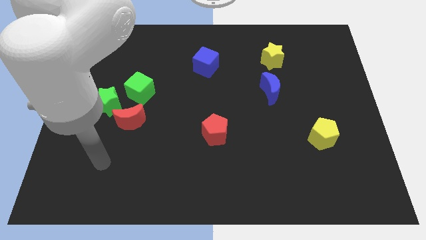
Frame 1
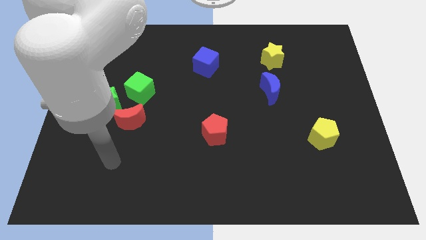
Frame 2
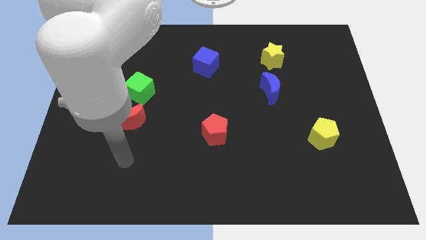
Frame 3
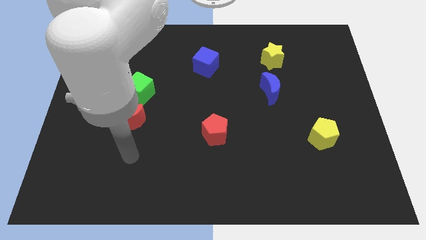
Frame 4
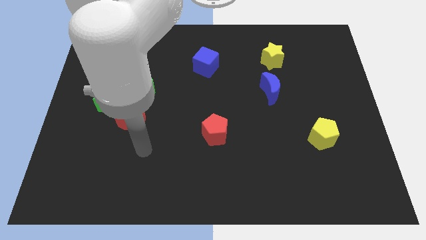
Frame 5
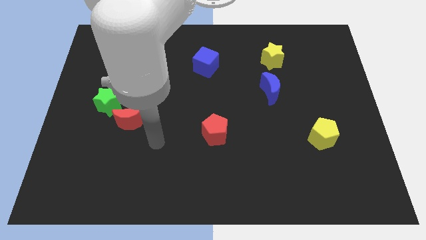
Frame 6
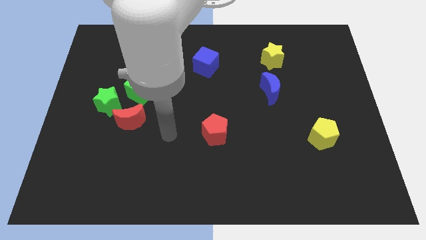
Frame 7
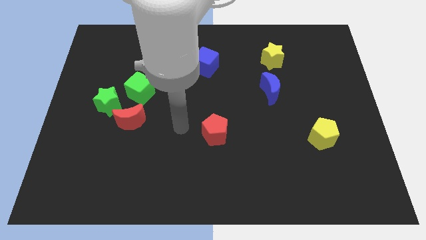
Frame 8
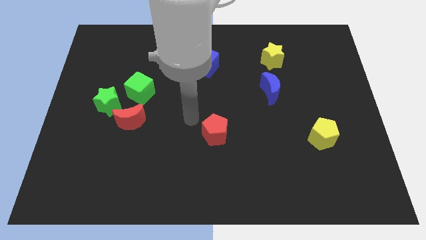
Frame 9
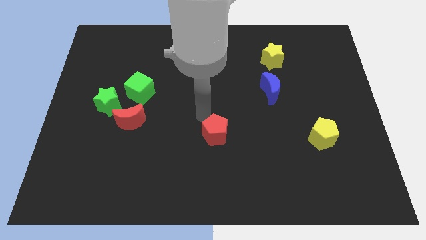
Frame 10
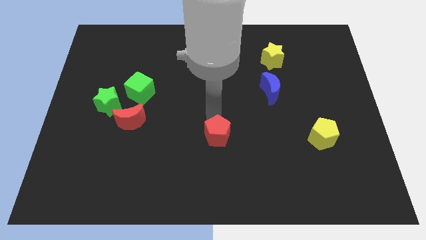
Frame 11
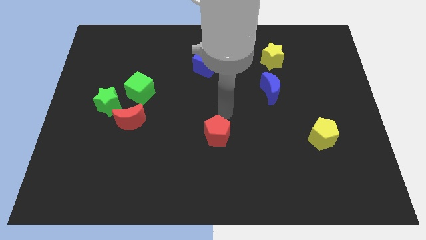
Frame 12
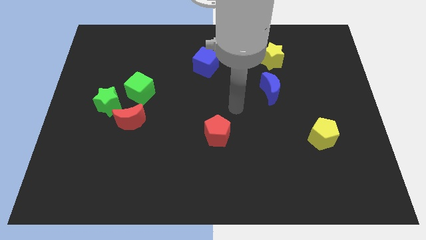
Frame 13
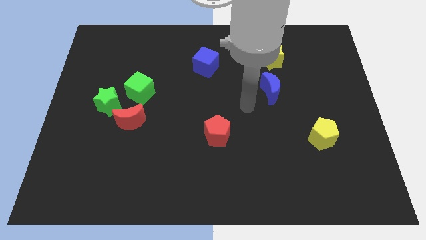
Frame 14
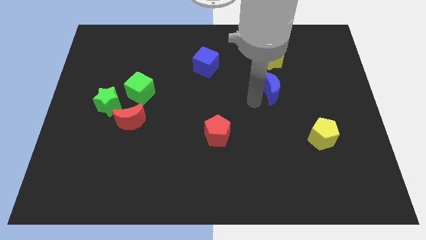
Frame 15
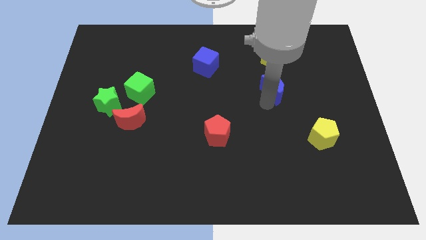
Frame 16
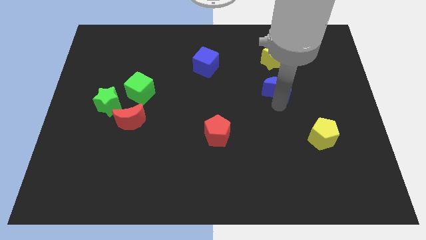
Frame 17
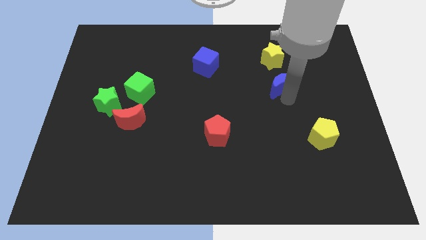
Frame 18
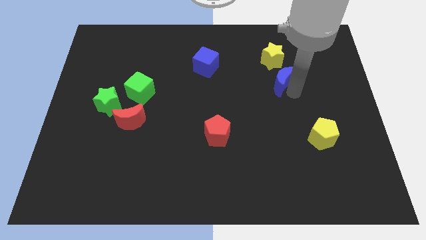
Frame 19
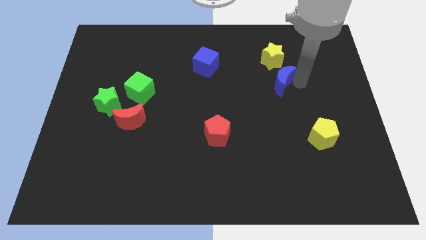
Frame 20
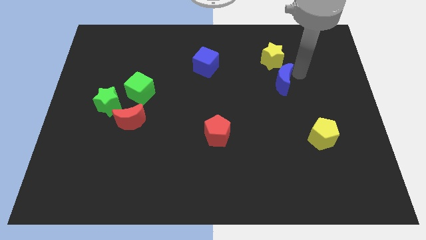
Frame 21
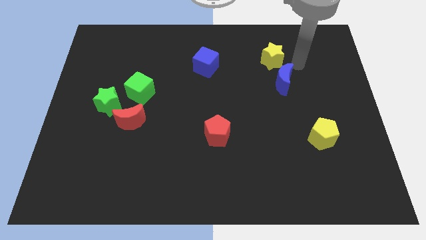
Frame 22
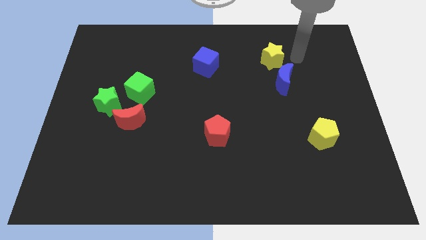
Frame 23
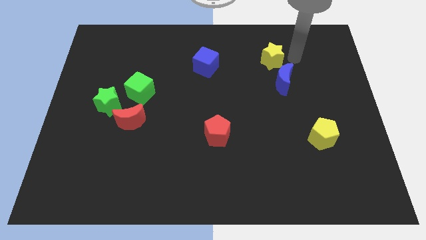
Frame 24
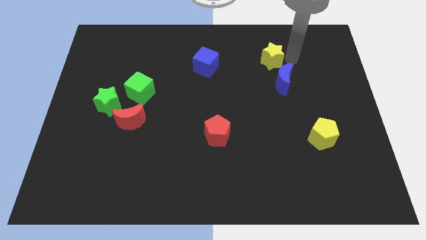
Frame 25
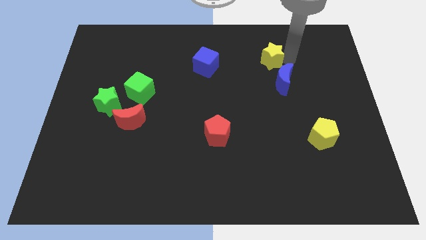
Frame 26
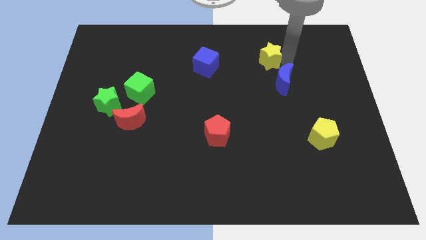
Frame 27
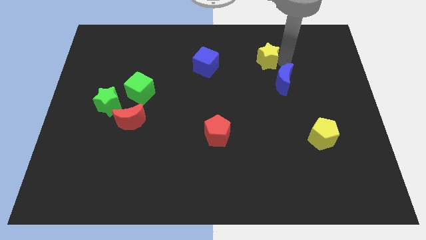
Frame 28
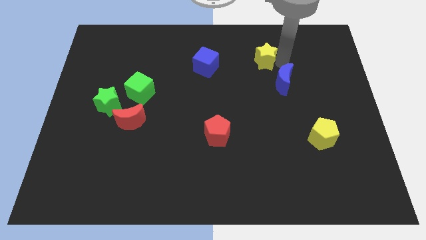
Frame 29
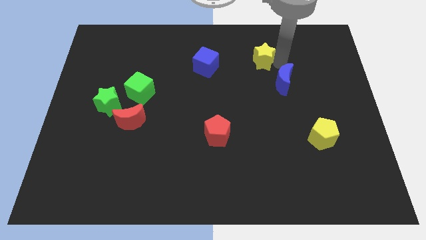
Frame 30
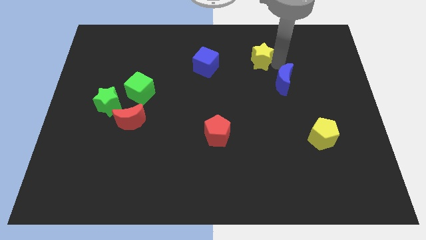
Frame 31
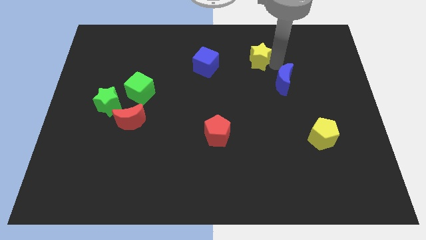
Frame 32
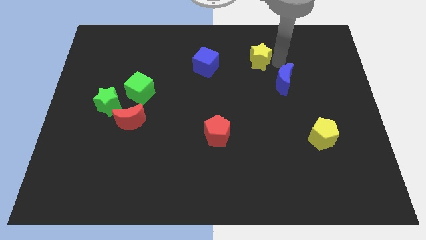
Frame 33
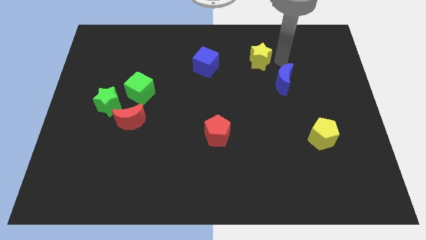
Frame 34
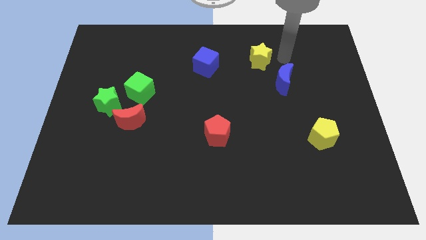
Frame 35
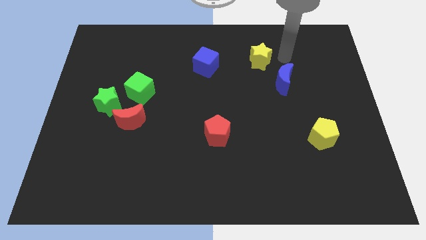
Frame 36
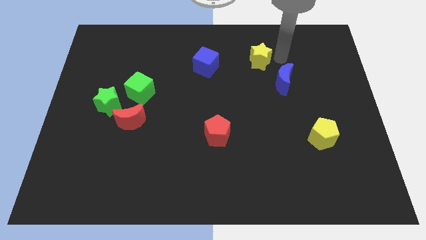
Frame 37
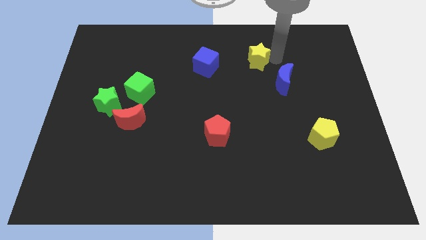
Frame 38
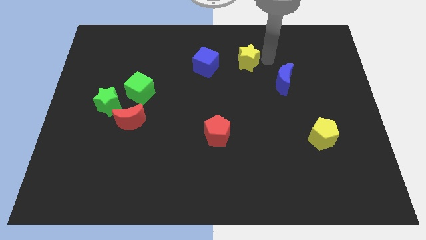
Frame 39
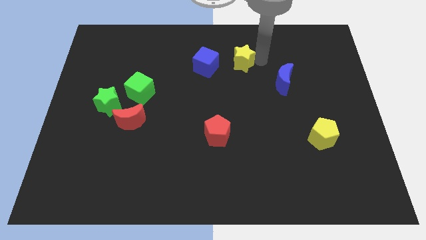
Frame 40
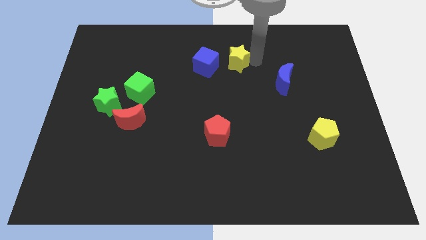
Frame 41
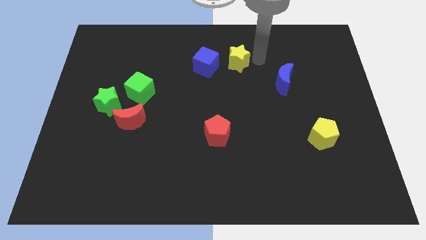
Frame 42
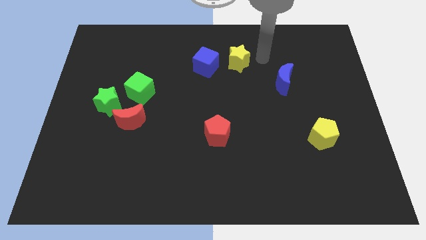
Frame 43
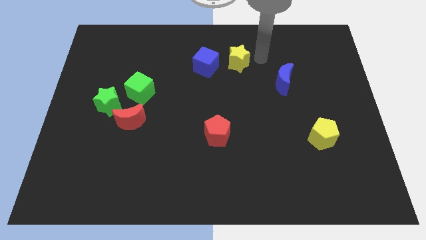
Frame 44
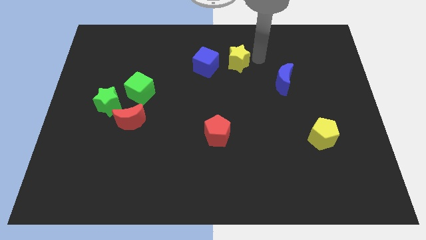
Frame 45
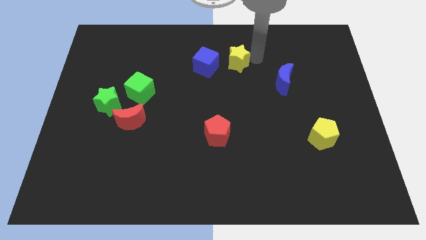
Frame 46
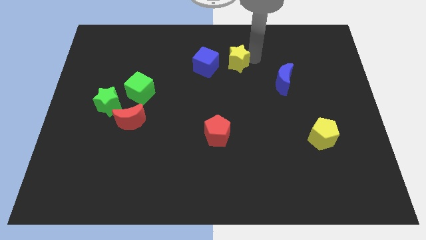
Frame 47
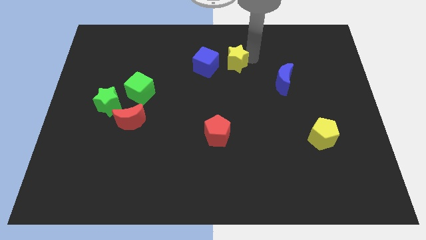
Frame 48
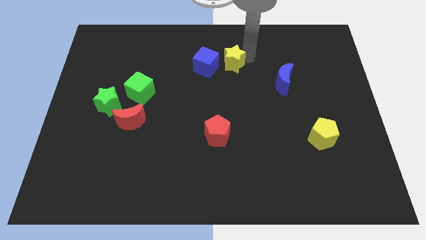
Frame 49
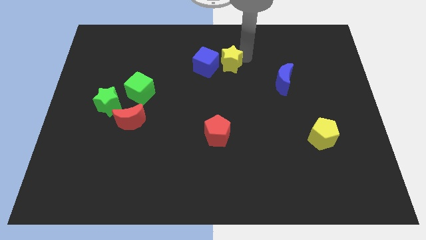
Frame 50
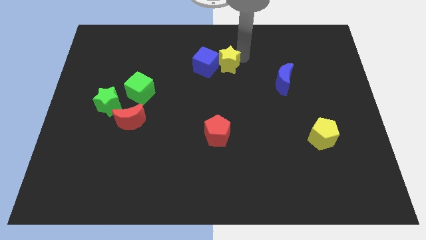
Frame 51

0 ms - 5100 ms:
put the yellow star close to the blue cube

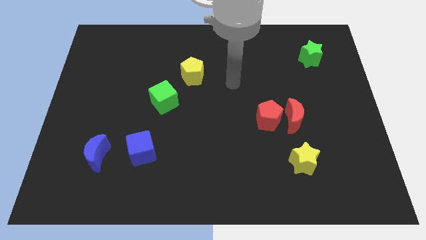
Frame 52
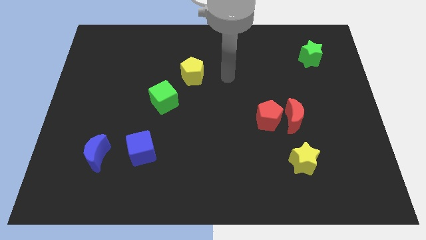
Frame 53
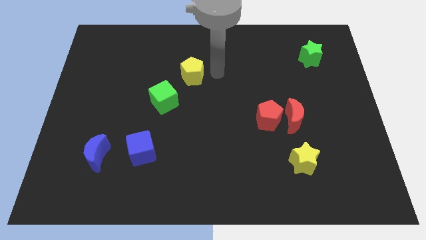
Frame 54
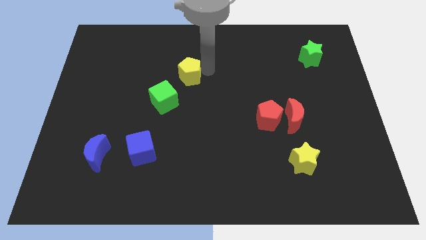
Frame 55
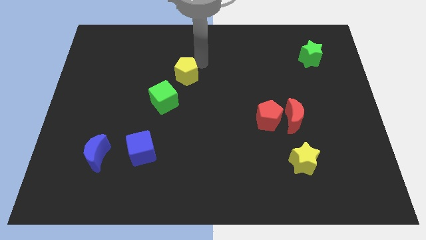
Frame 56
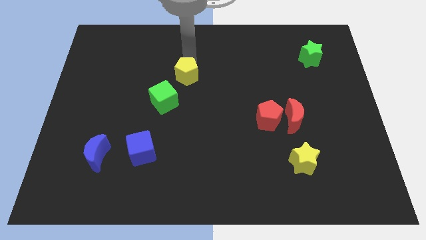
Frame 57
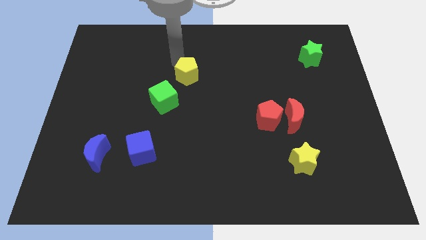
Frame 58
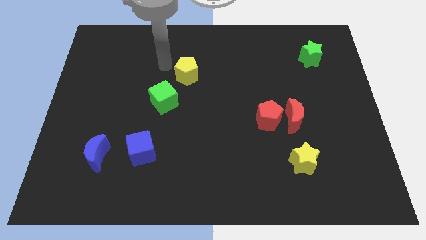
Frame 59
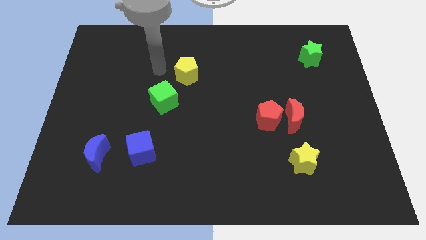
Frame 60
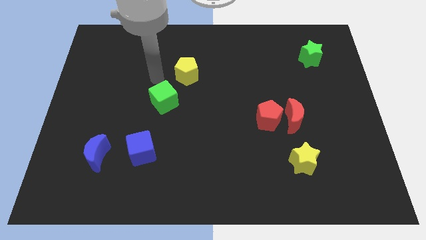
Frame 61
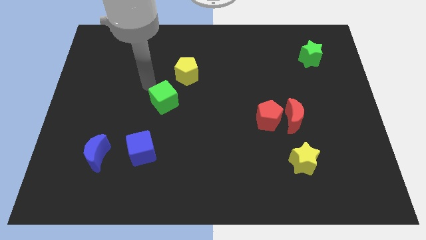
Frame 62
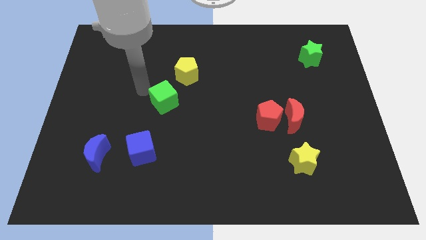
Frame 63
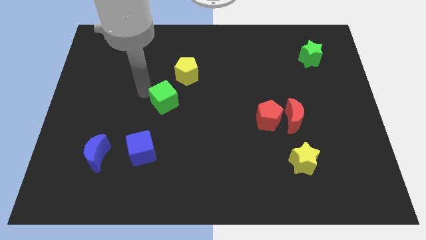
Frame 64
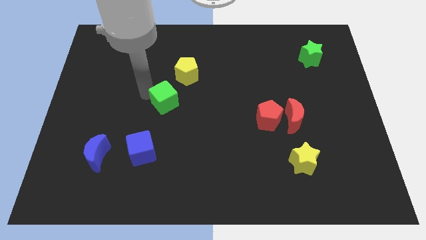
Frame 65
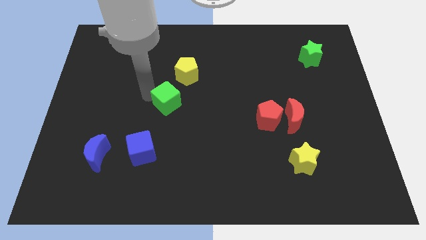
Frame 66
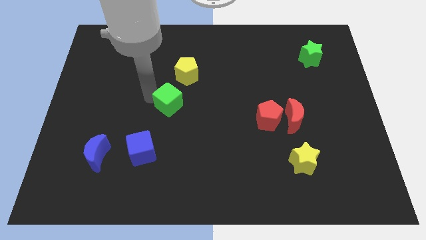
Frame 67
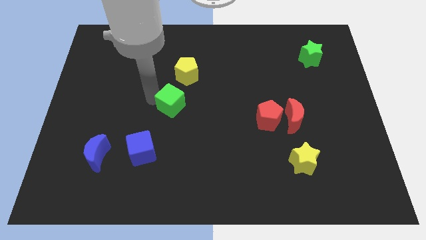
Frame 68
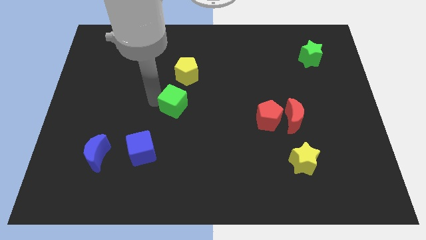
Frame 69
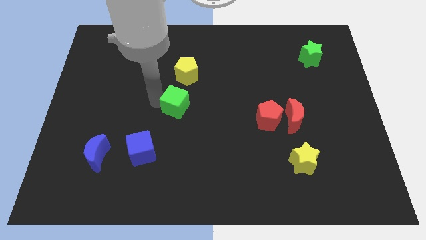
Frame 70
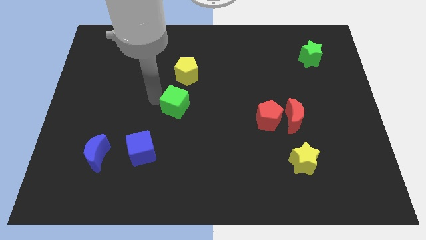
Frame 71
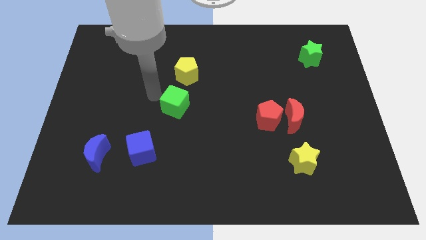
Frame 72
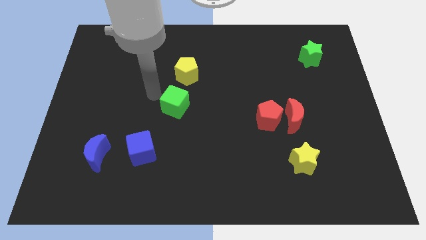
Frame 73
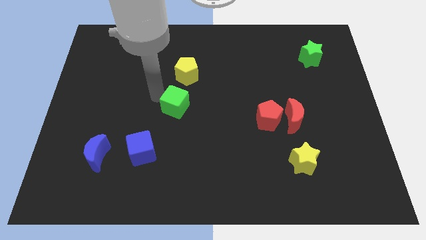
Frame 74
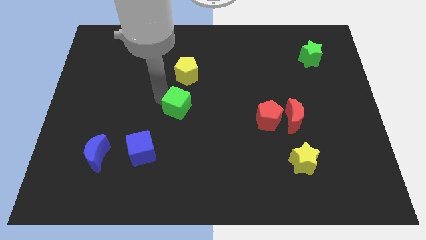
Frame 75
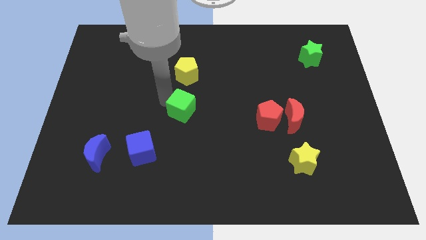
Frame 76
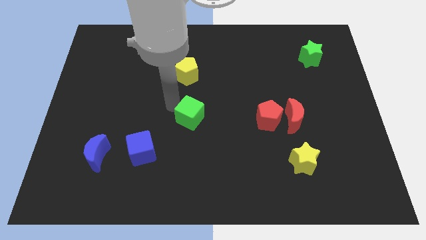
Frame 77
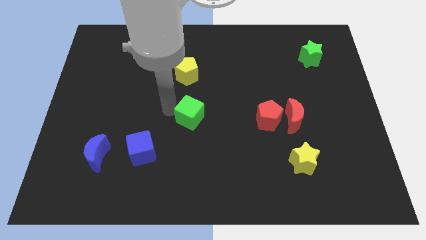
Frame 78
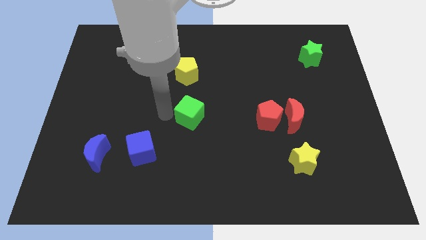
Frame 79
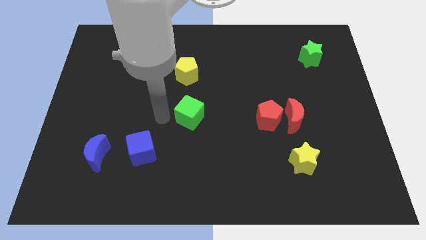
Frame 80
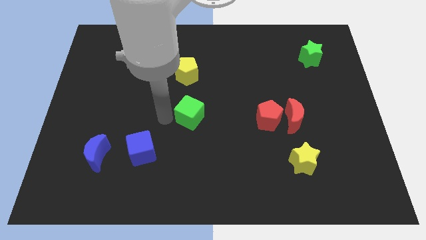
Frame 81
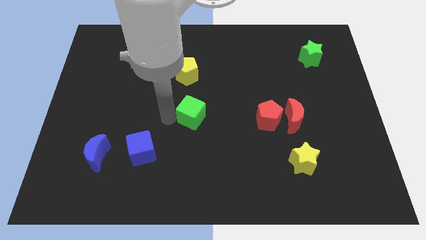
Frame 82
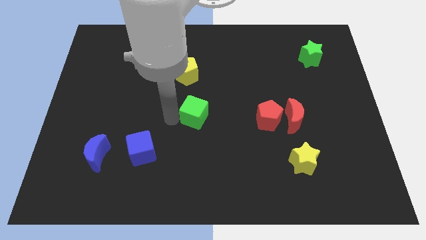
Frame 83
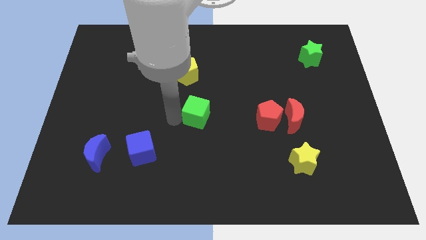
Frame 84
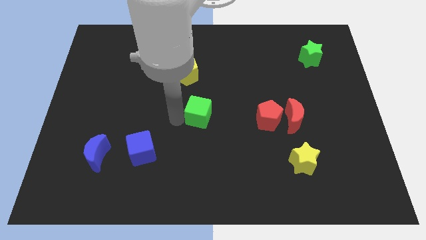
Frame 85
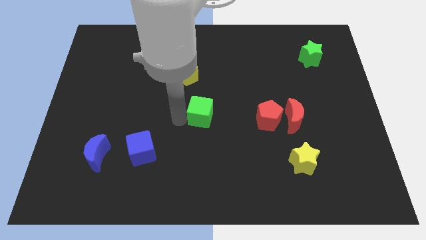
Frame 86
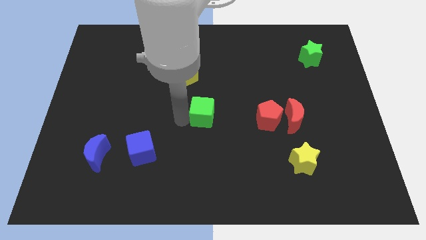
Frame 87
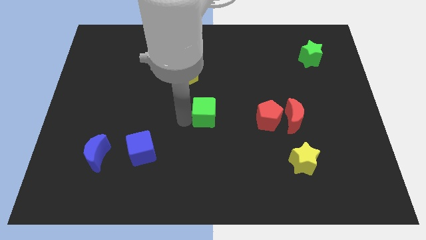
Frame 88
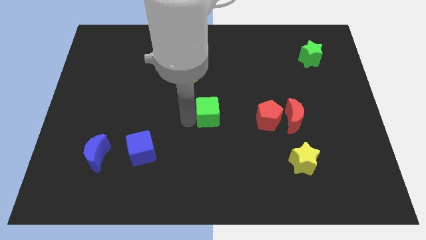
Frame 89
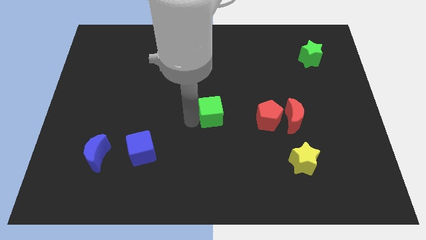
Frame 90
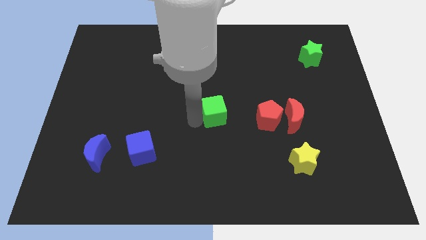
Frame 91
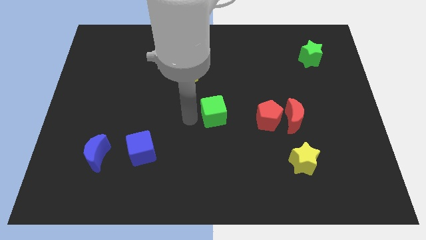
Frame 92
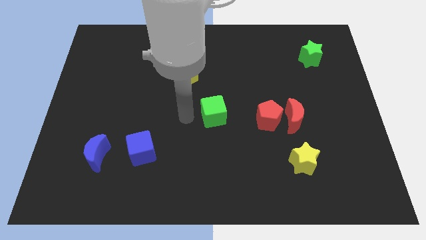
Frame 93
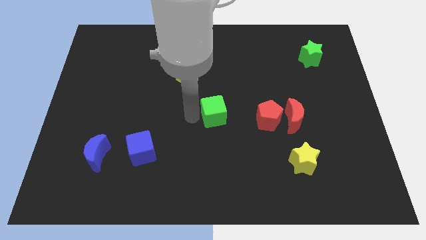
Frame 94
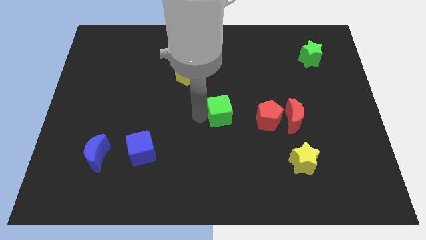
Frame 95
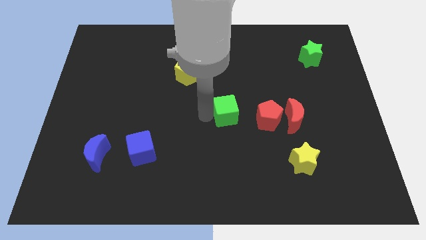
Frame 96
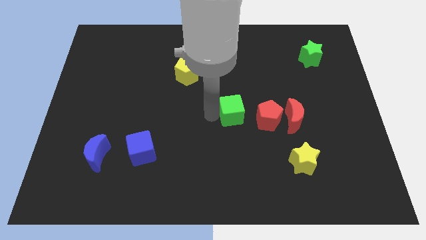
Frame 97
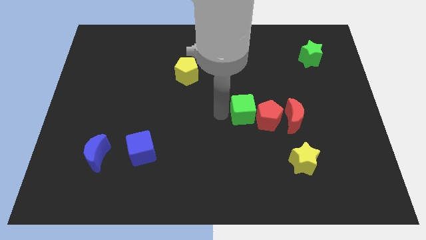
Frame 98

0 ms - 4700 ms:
slide the green cube next to the red pentagon
